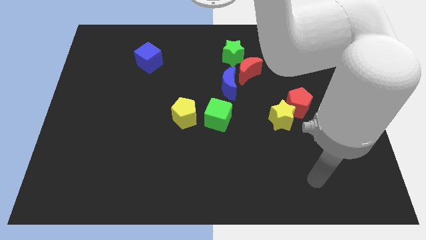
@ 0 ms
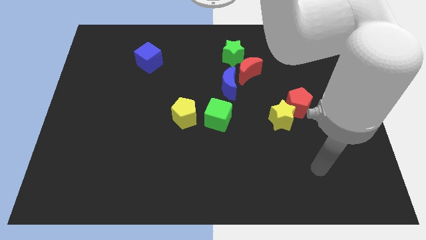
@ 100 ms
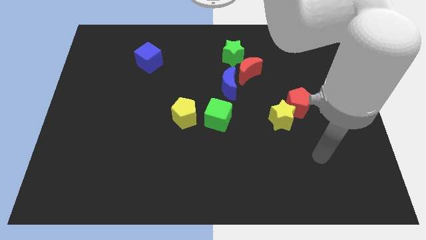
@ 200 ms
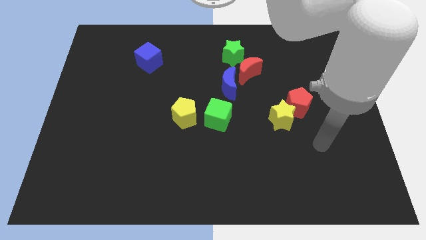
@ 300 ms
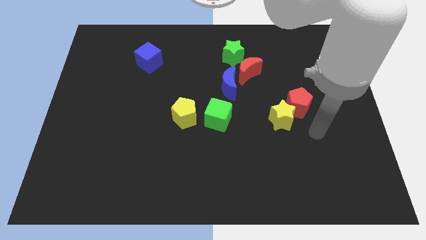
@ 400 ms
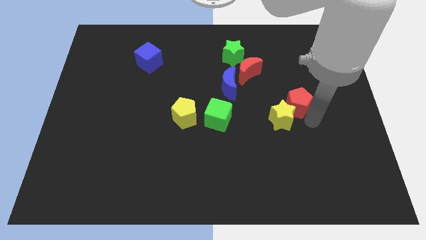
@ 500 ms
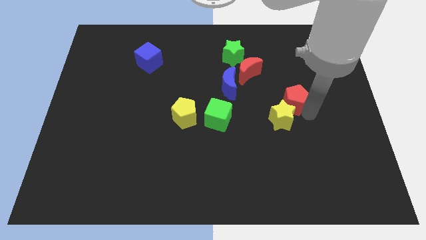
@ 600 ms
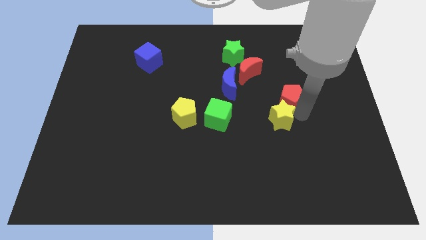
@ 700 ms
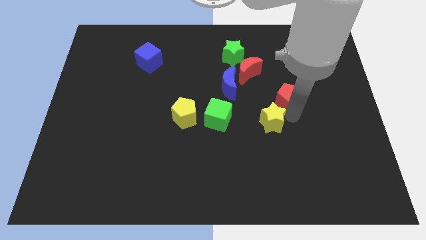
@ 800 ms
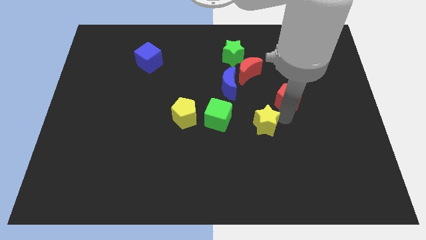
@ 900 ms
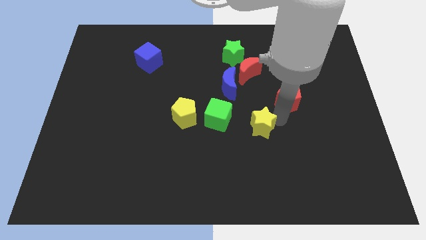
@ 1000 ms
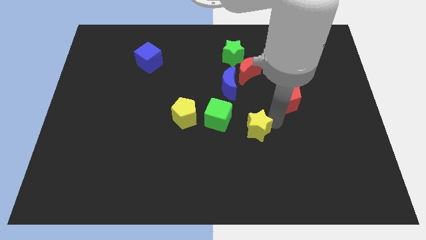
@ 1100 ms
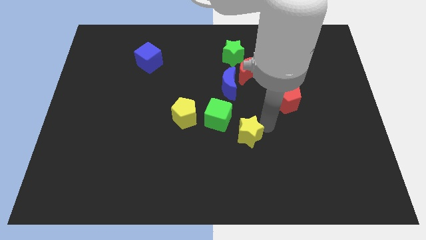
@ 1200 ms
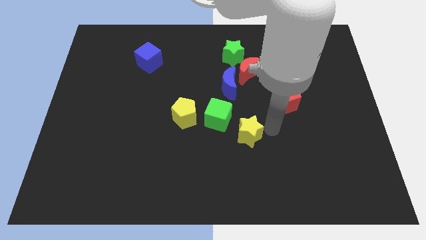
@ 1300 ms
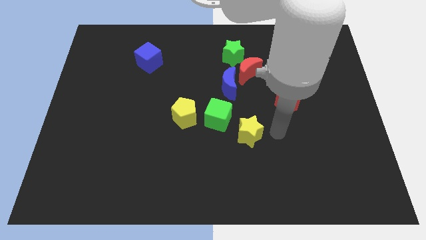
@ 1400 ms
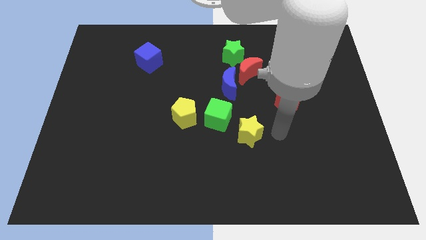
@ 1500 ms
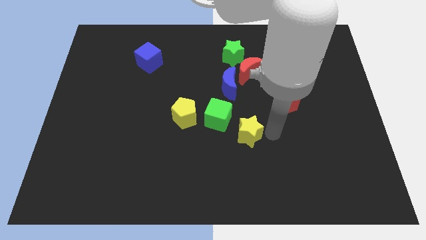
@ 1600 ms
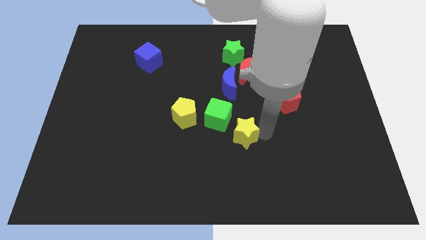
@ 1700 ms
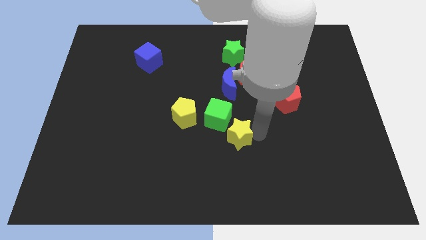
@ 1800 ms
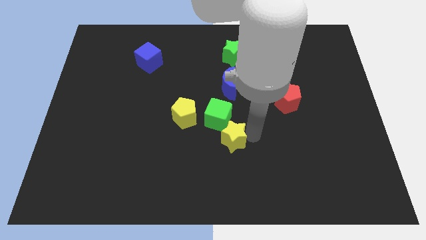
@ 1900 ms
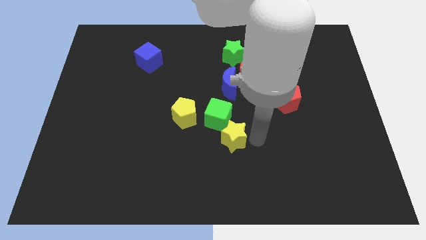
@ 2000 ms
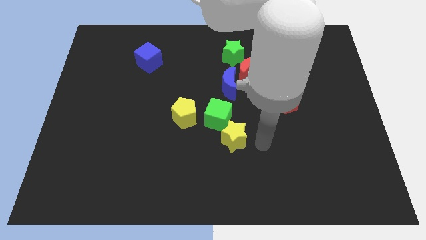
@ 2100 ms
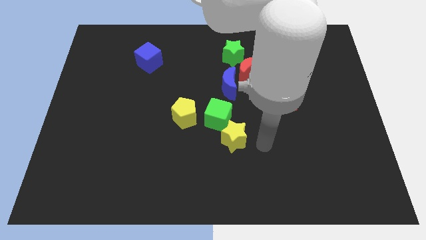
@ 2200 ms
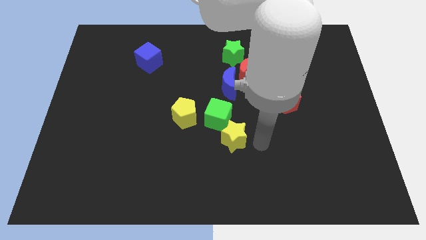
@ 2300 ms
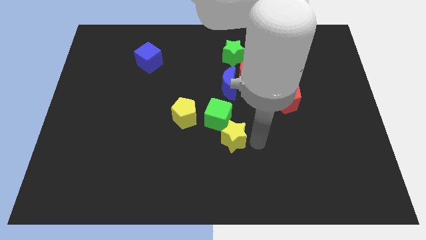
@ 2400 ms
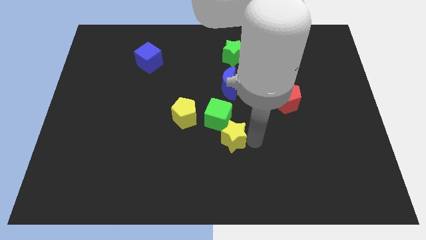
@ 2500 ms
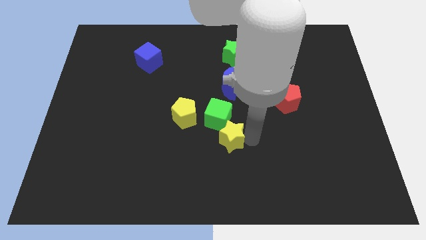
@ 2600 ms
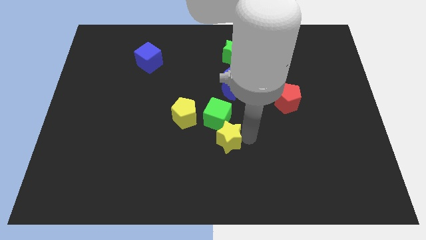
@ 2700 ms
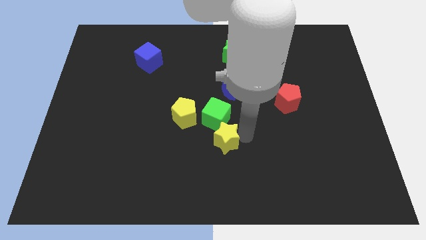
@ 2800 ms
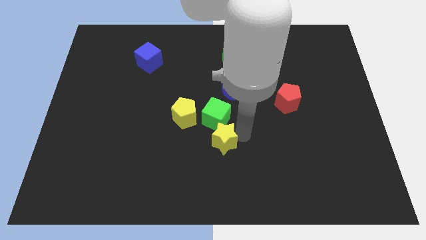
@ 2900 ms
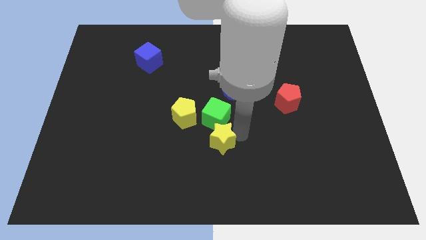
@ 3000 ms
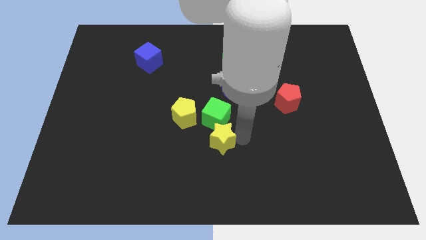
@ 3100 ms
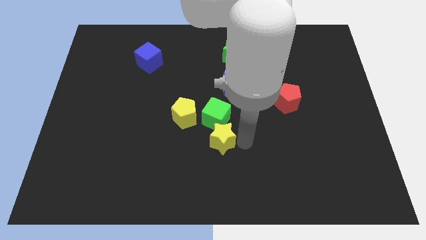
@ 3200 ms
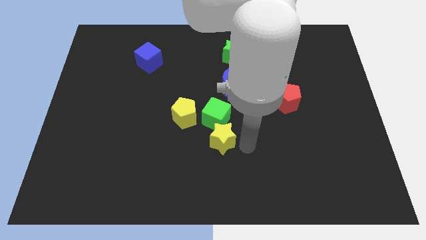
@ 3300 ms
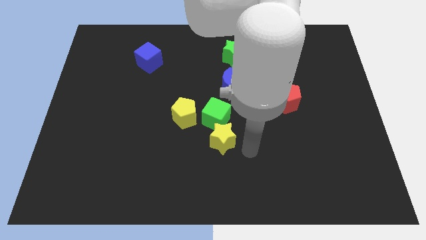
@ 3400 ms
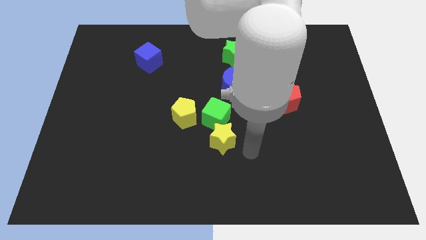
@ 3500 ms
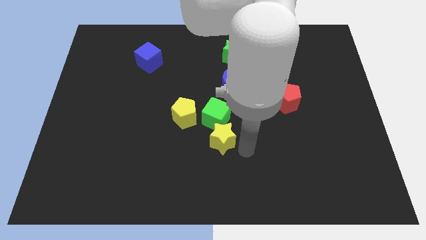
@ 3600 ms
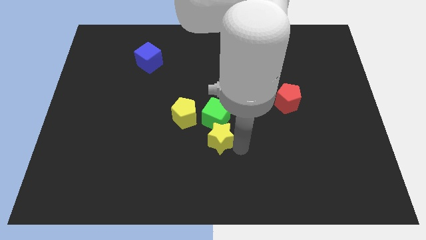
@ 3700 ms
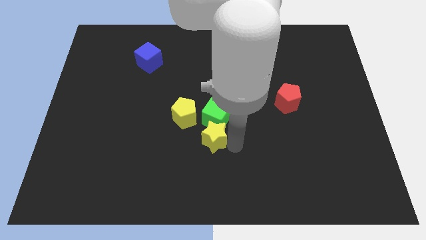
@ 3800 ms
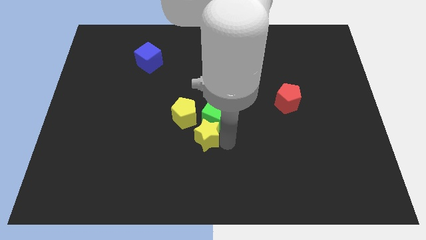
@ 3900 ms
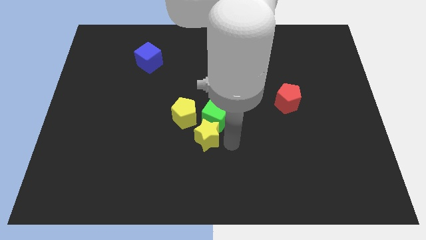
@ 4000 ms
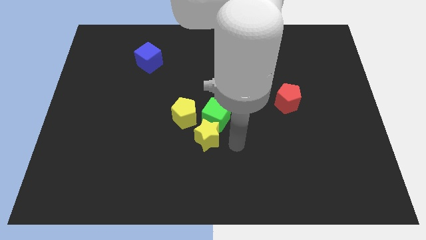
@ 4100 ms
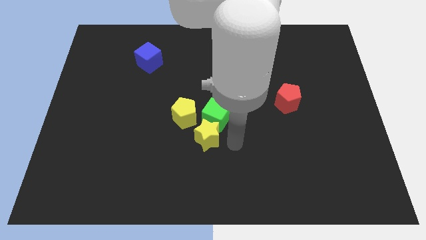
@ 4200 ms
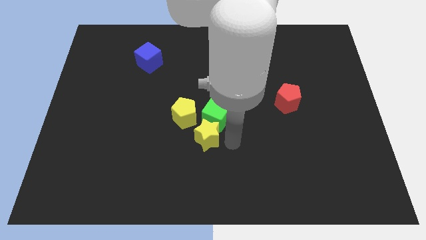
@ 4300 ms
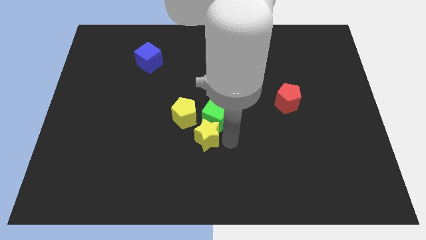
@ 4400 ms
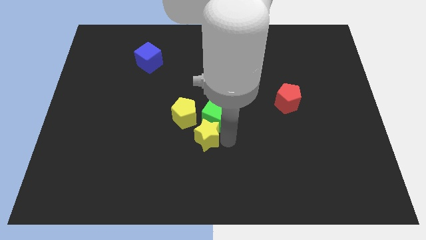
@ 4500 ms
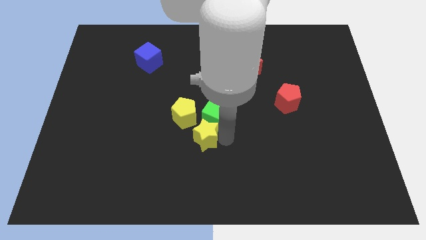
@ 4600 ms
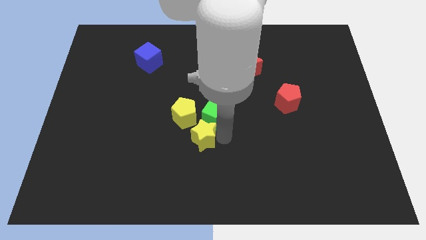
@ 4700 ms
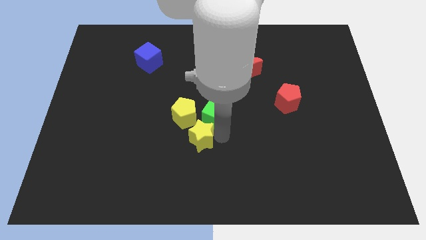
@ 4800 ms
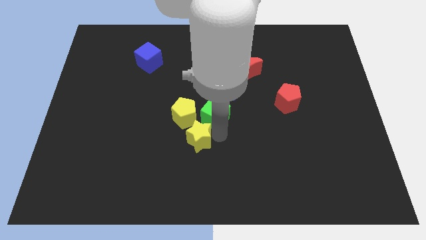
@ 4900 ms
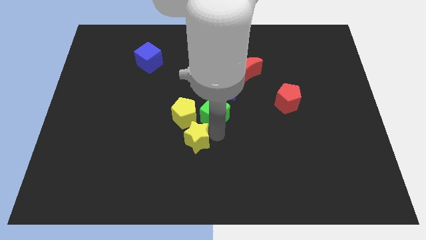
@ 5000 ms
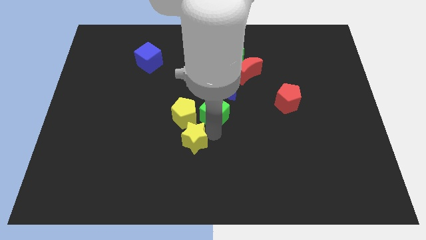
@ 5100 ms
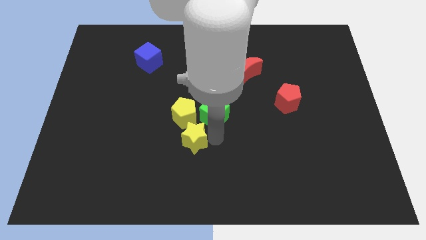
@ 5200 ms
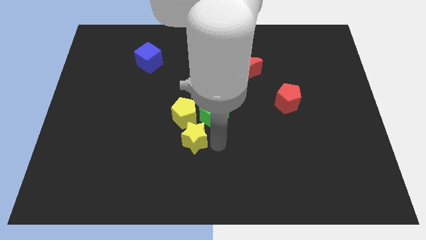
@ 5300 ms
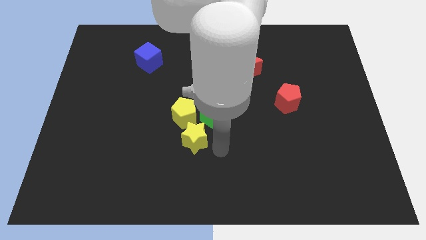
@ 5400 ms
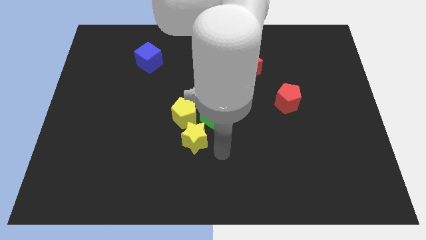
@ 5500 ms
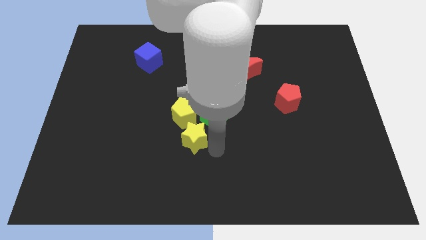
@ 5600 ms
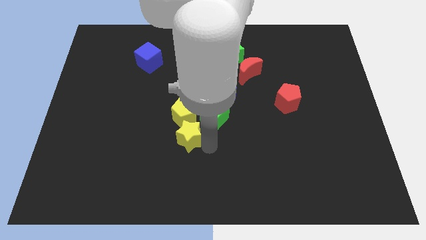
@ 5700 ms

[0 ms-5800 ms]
slide the yellow star left

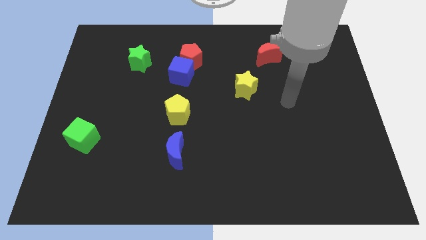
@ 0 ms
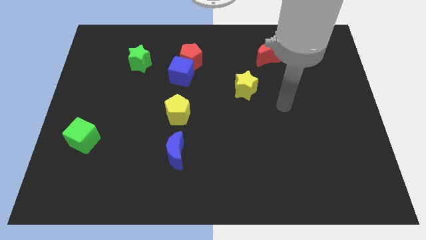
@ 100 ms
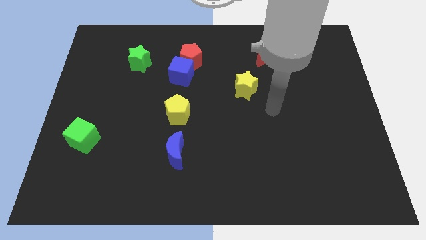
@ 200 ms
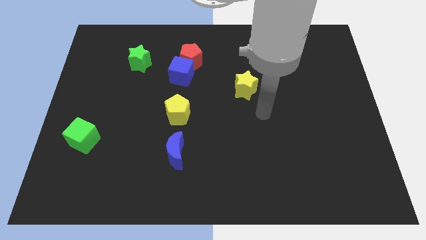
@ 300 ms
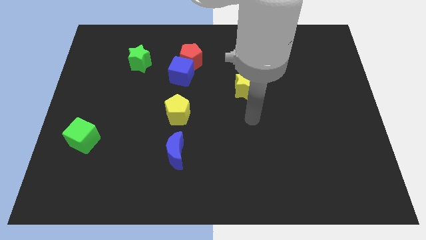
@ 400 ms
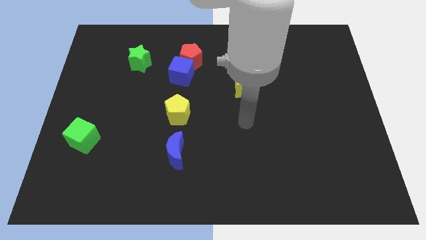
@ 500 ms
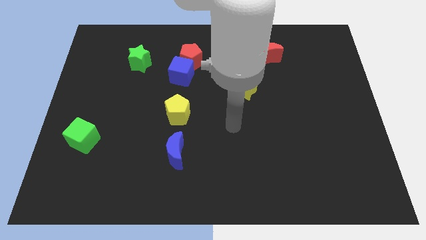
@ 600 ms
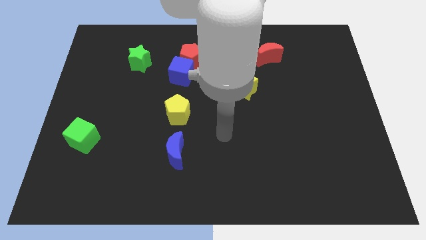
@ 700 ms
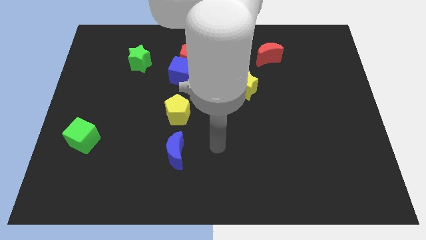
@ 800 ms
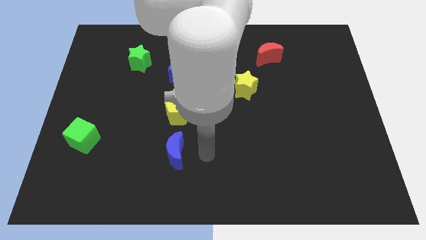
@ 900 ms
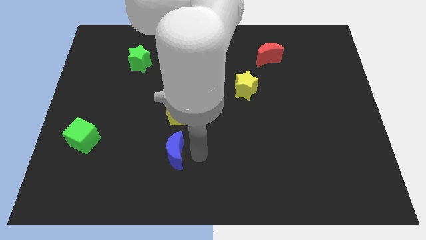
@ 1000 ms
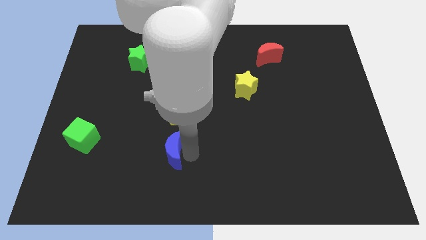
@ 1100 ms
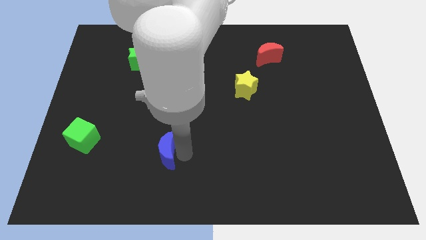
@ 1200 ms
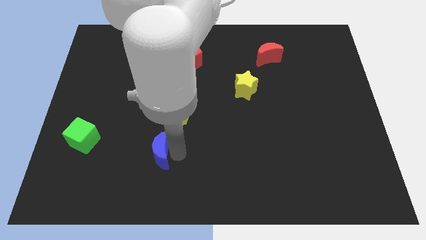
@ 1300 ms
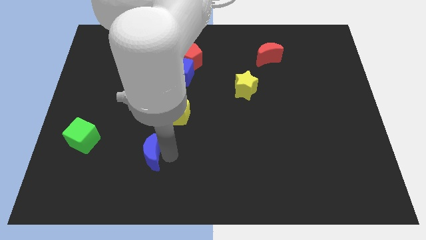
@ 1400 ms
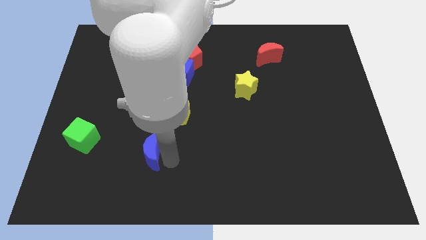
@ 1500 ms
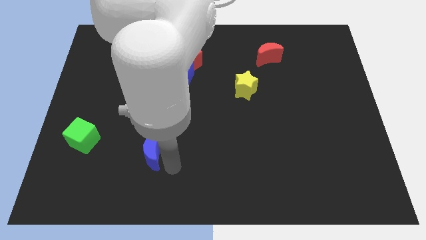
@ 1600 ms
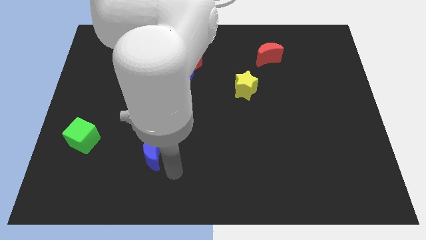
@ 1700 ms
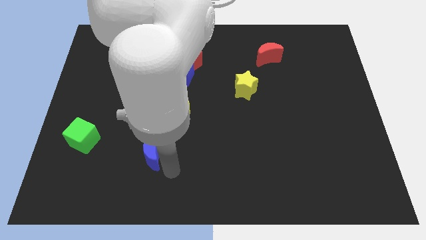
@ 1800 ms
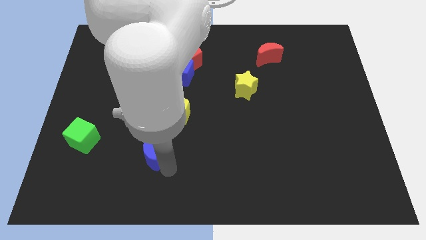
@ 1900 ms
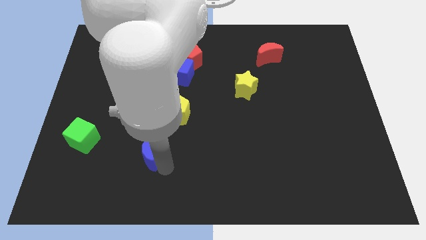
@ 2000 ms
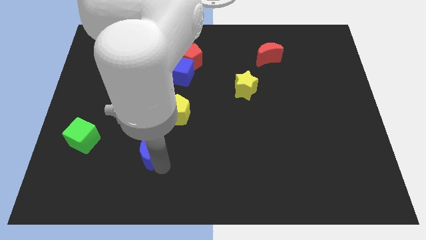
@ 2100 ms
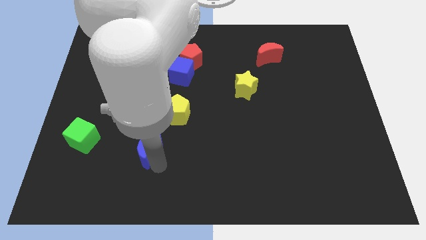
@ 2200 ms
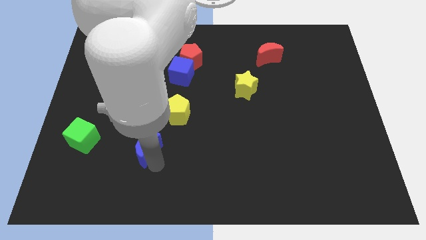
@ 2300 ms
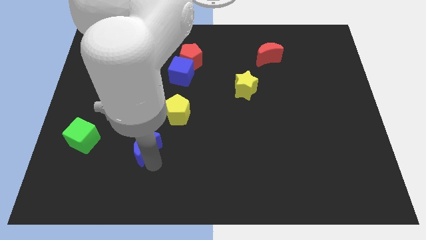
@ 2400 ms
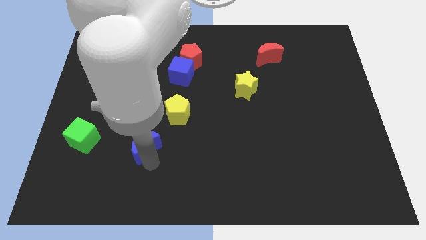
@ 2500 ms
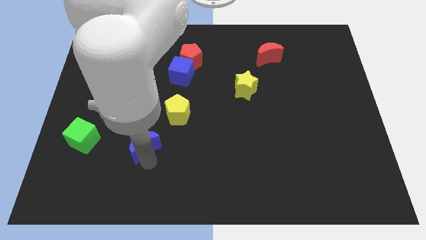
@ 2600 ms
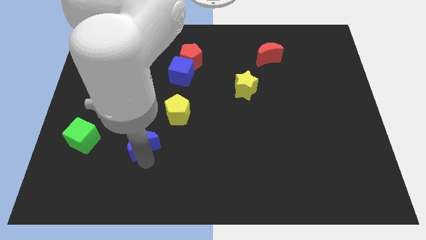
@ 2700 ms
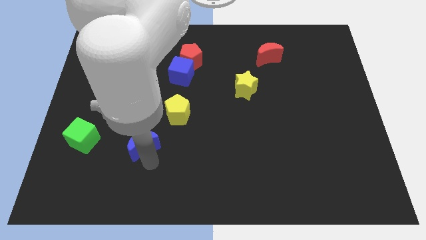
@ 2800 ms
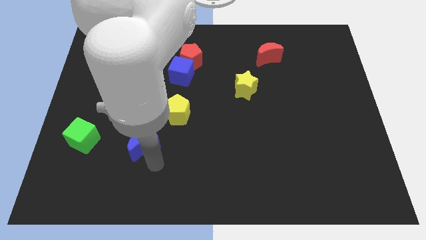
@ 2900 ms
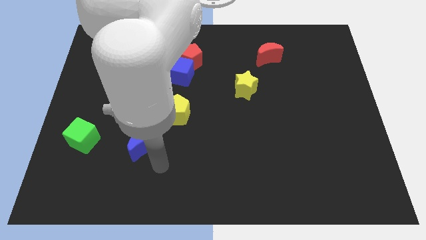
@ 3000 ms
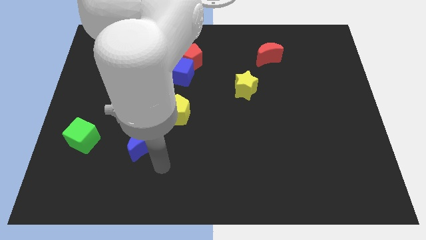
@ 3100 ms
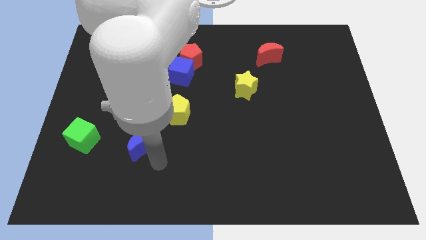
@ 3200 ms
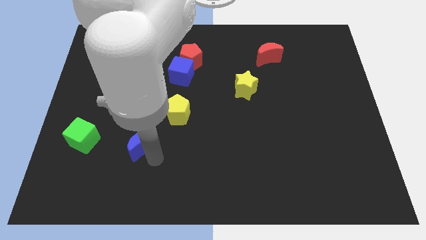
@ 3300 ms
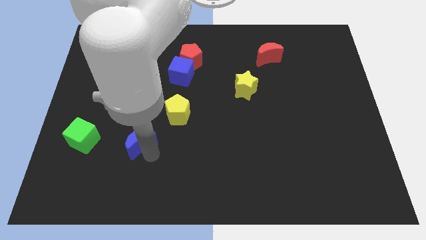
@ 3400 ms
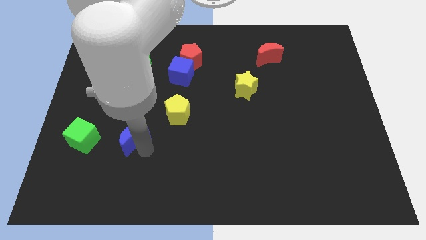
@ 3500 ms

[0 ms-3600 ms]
move the blue moon a little upwards and left diagonally
